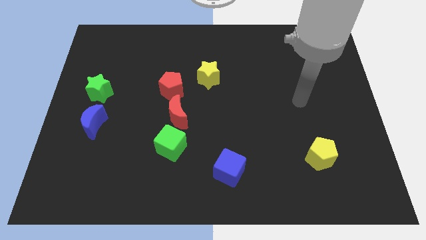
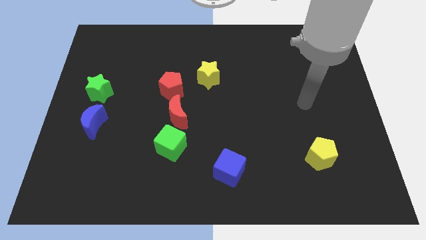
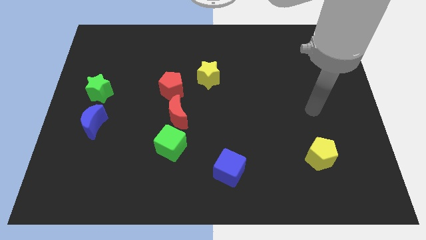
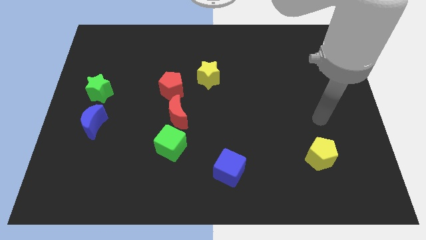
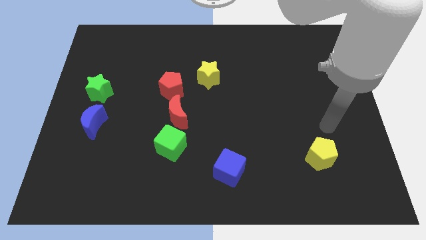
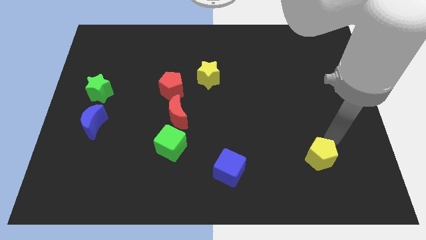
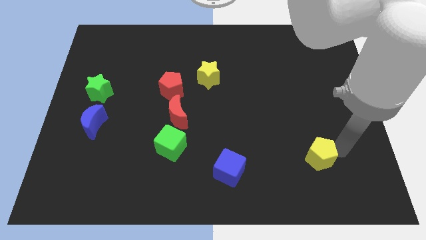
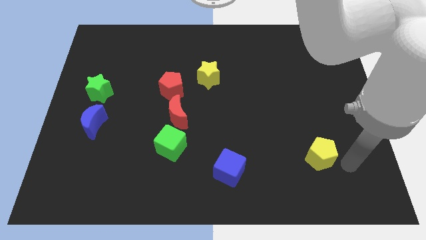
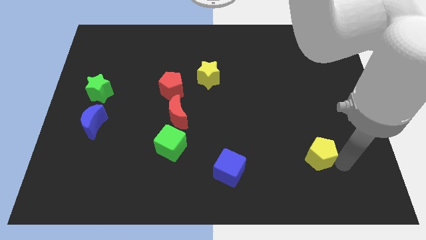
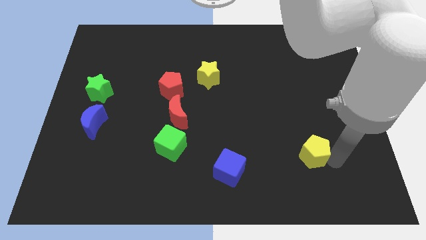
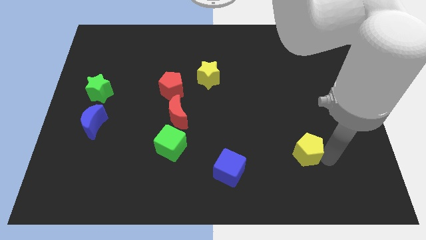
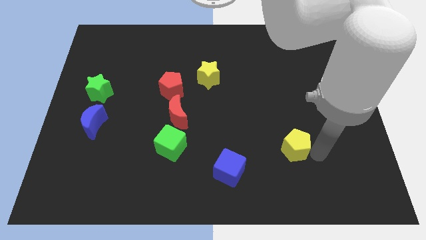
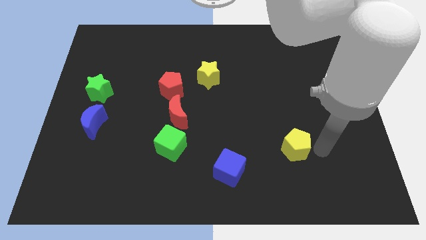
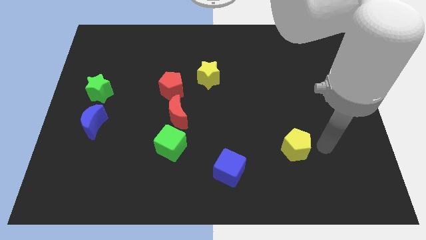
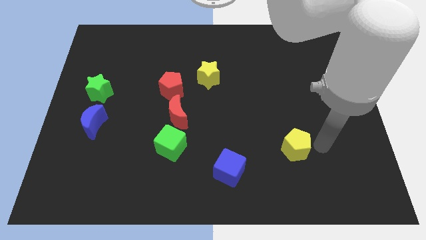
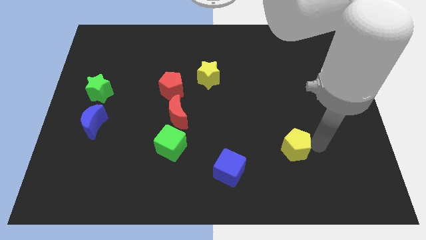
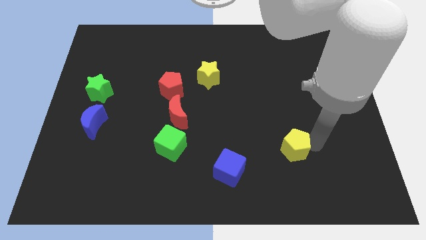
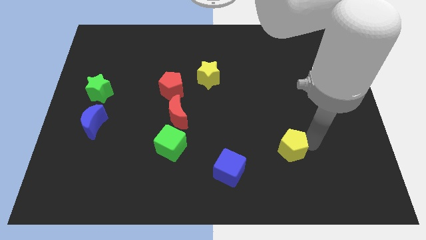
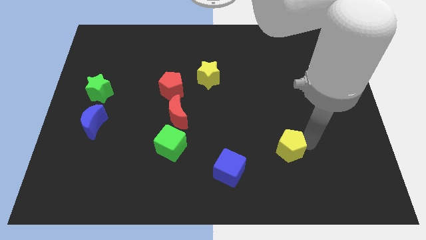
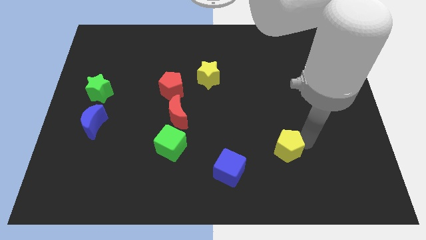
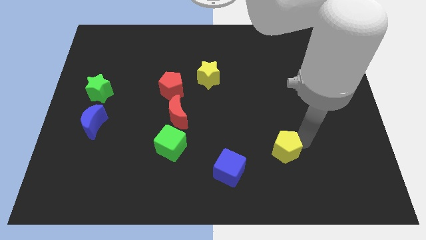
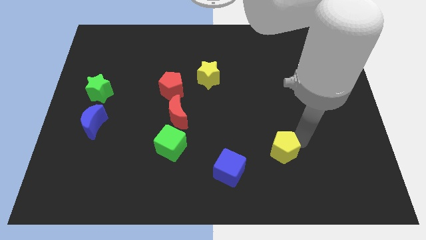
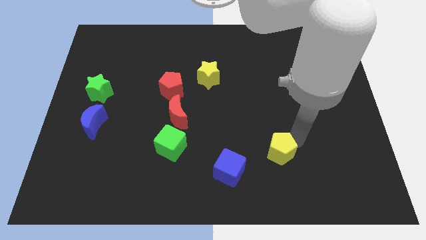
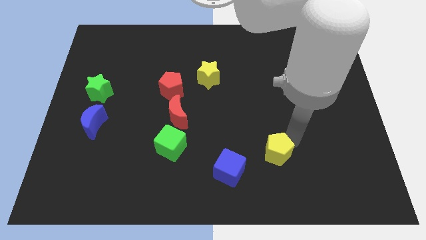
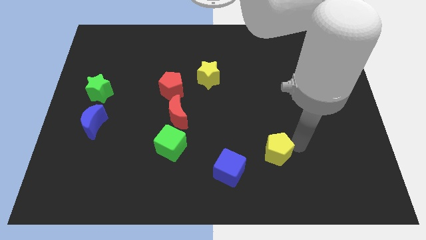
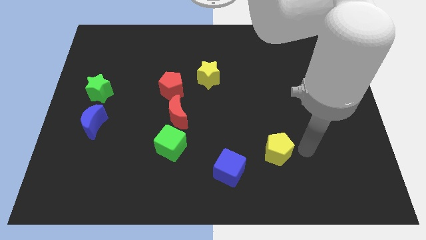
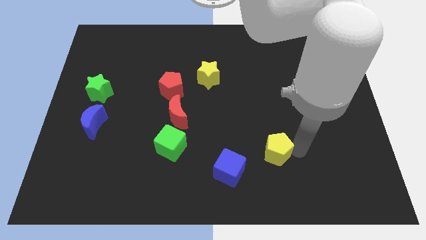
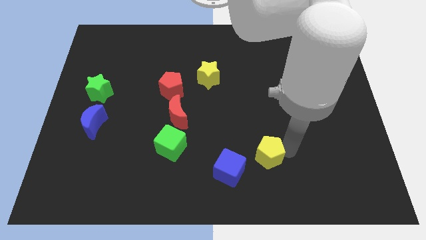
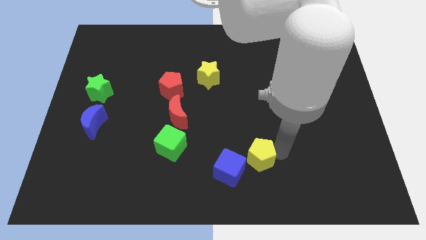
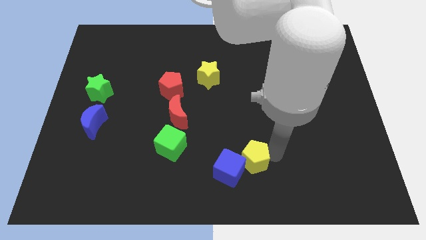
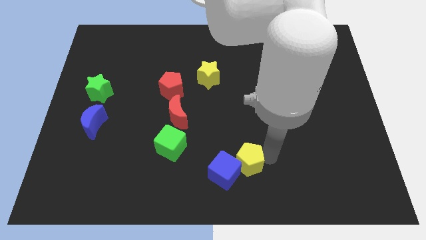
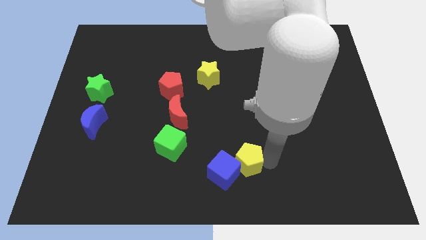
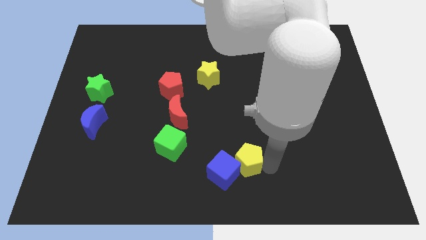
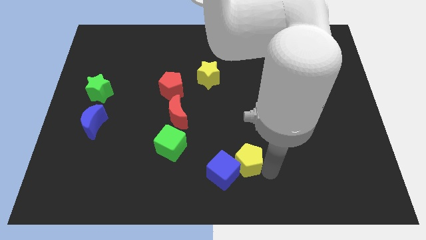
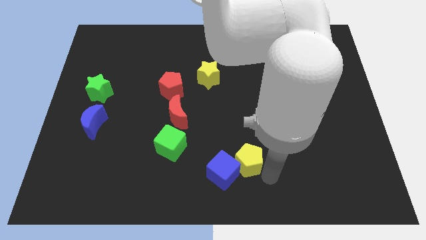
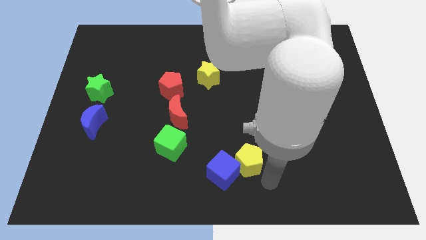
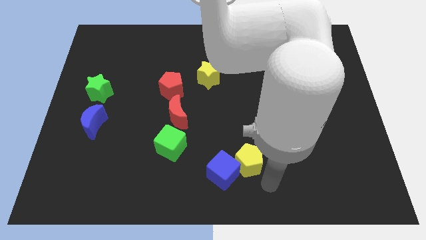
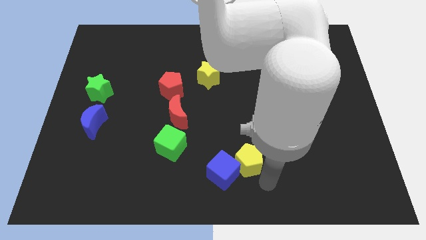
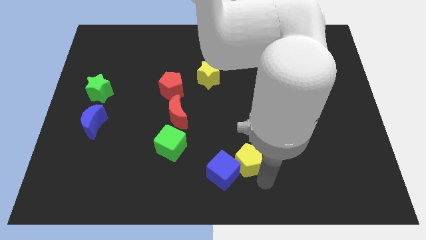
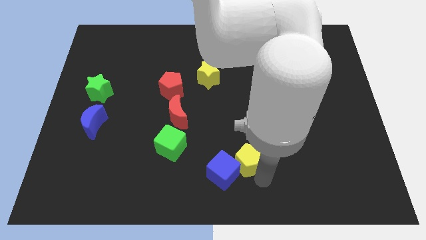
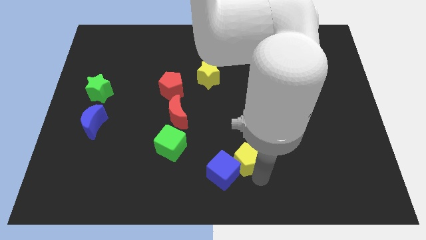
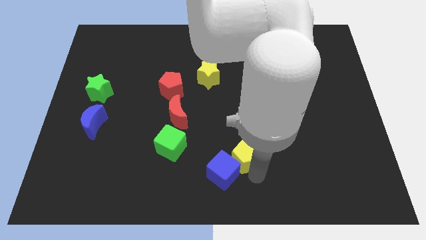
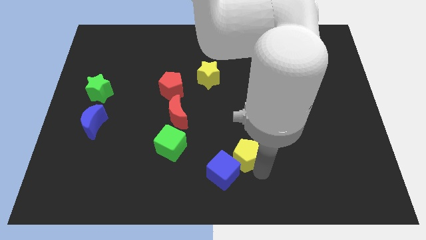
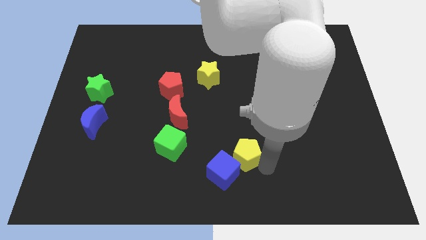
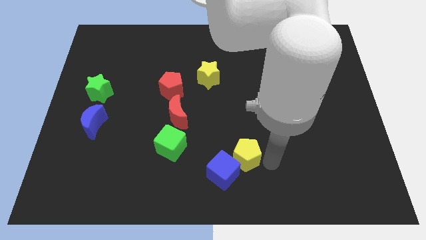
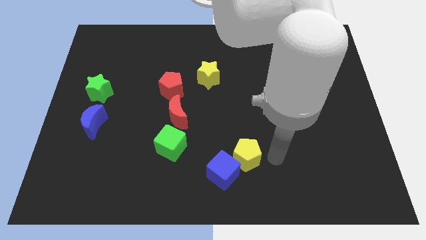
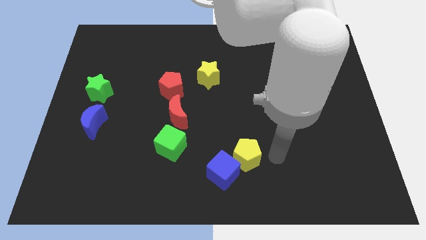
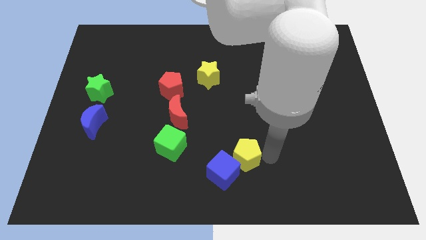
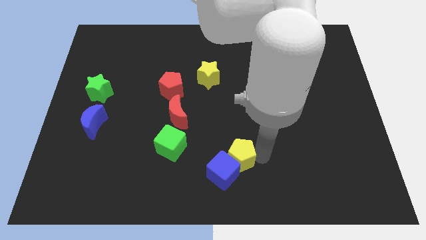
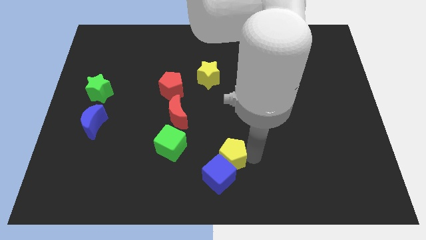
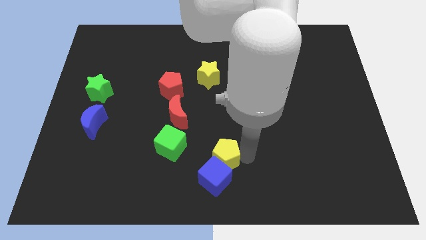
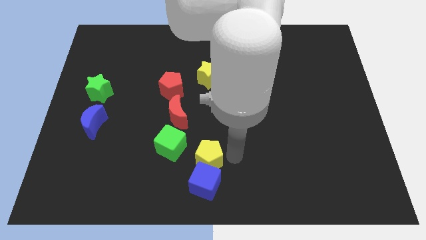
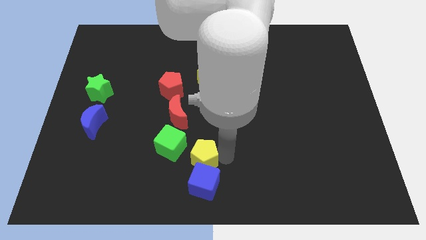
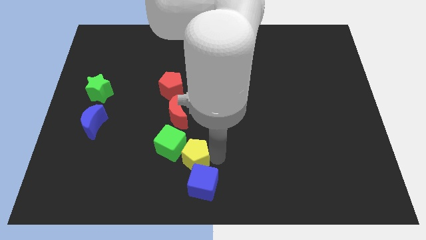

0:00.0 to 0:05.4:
put the yellow pentagon to the bottom side of the red moon
